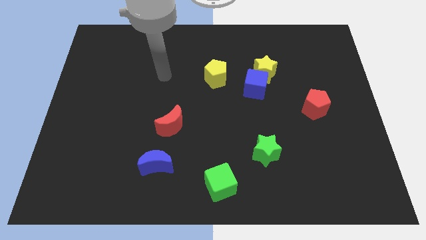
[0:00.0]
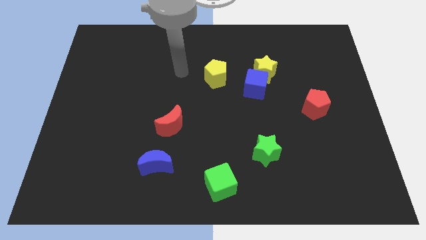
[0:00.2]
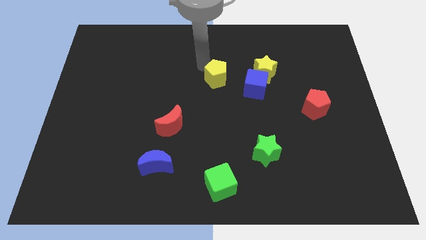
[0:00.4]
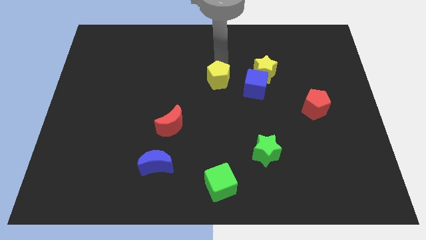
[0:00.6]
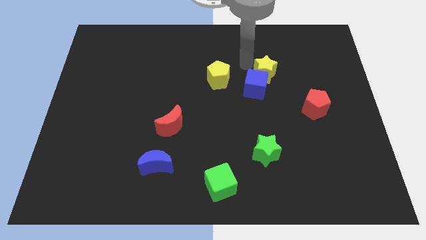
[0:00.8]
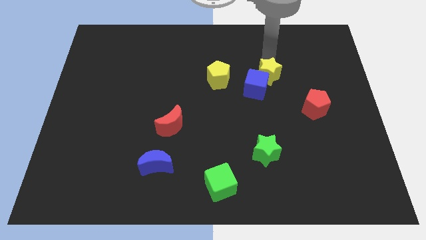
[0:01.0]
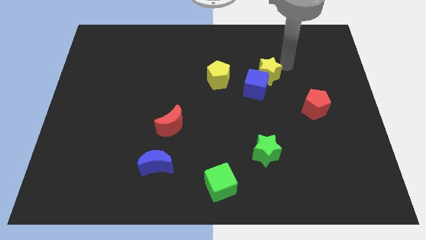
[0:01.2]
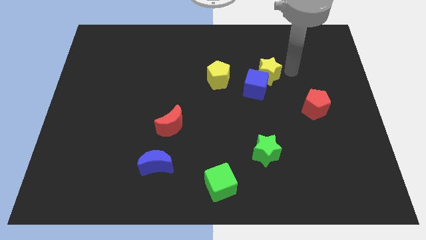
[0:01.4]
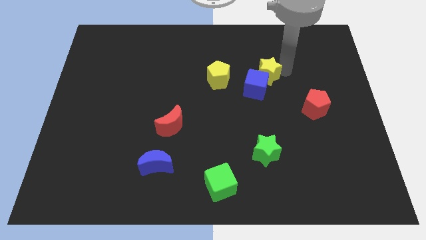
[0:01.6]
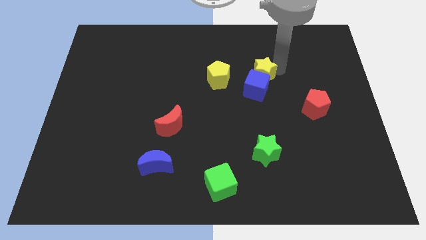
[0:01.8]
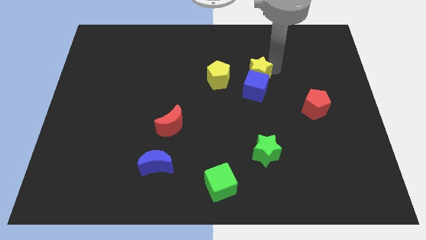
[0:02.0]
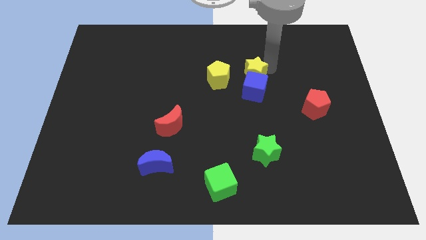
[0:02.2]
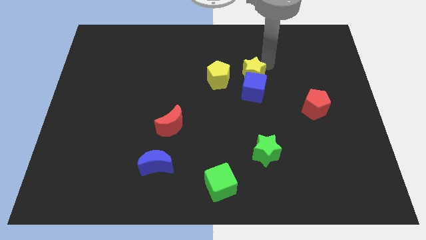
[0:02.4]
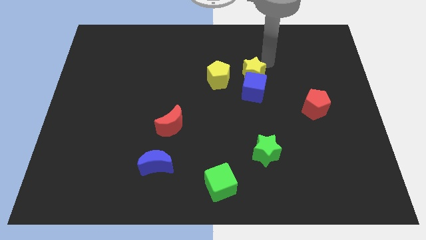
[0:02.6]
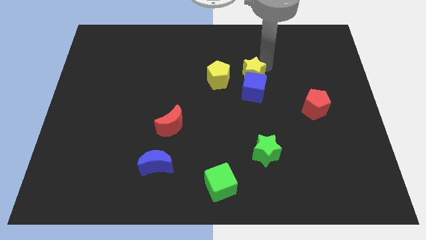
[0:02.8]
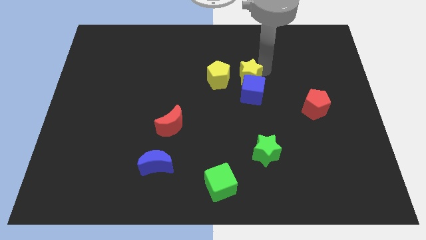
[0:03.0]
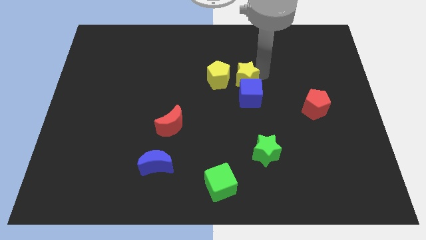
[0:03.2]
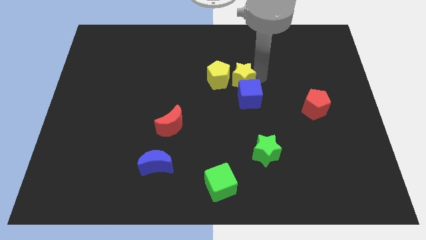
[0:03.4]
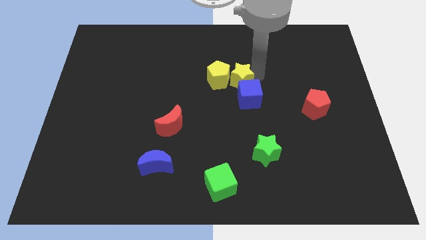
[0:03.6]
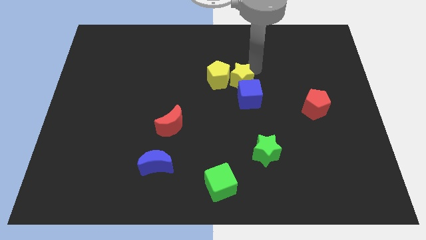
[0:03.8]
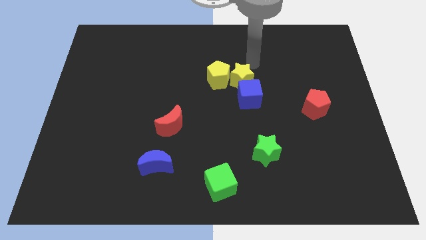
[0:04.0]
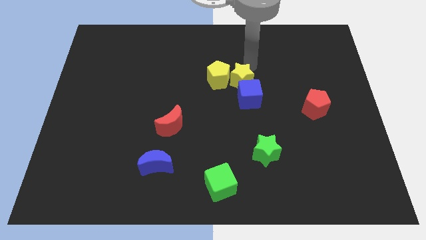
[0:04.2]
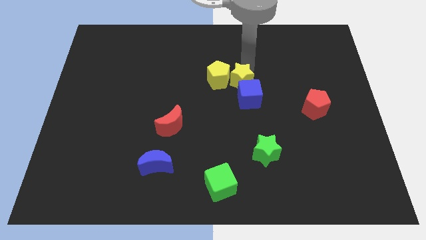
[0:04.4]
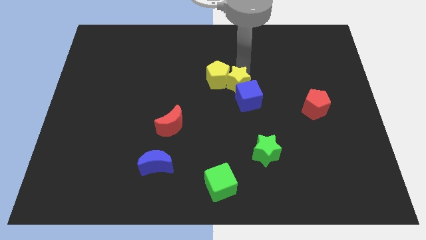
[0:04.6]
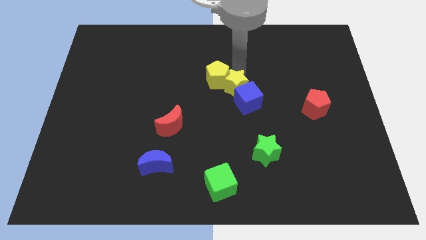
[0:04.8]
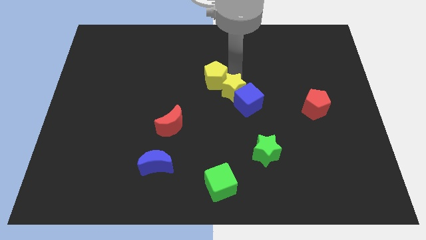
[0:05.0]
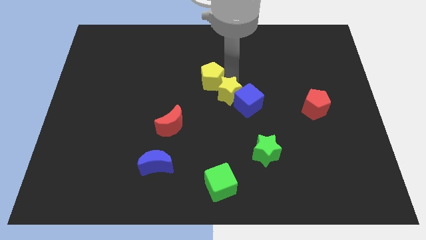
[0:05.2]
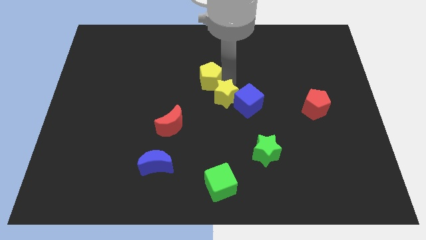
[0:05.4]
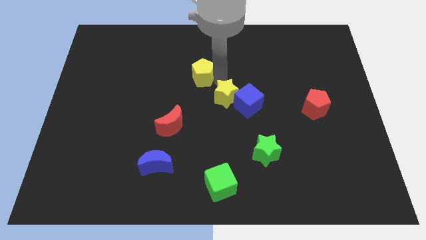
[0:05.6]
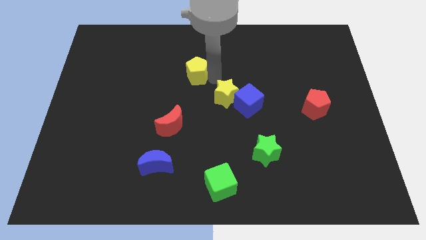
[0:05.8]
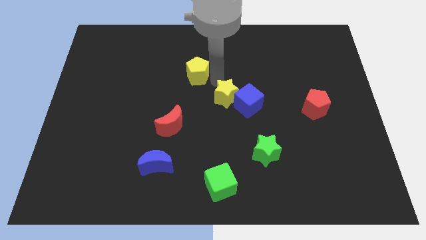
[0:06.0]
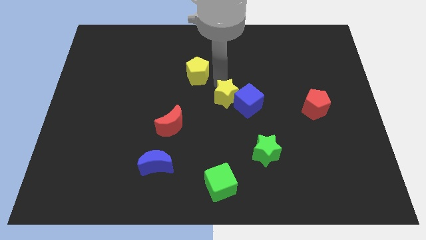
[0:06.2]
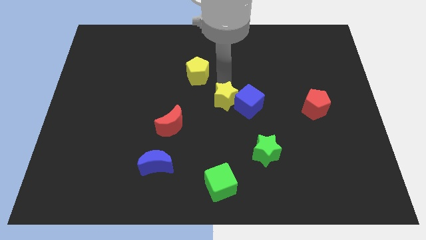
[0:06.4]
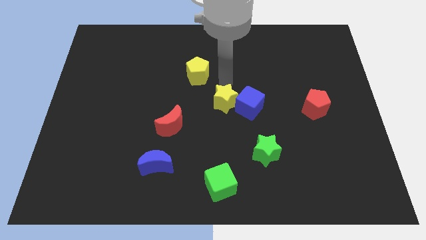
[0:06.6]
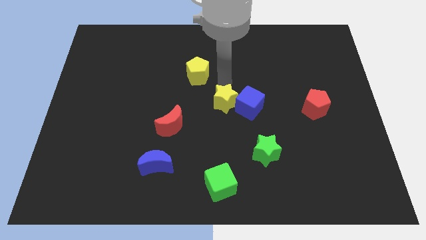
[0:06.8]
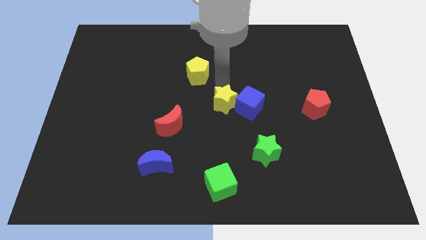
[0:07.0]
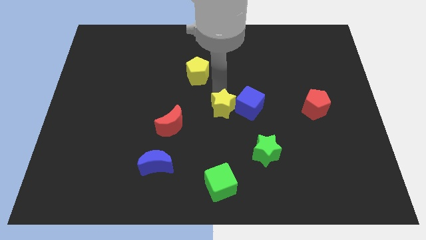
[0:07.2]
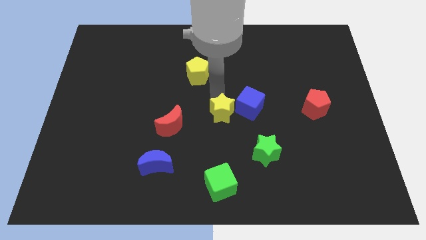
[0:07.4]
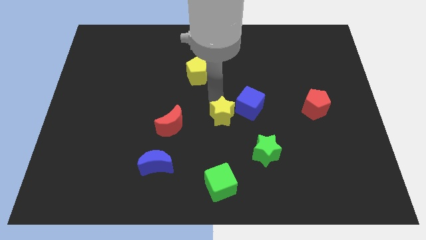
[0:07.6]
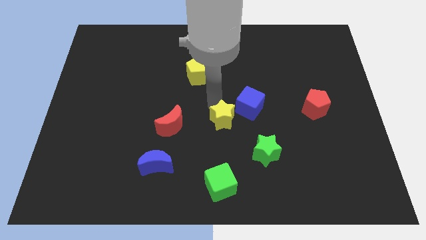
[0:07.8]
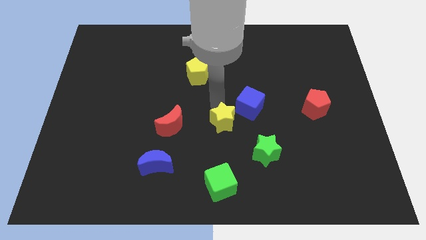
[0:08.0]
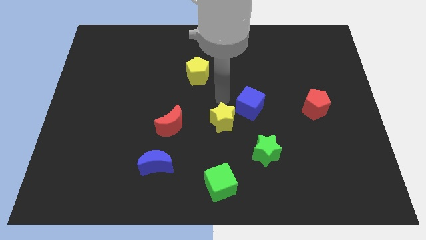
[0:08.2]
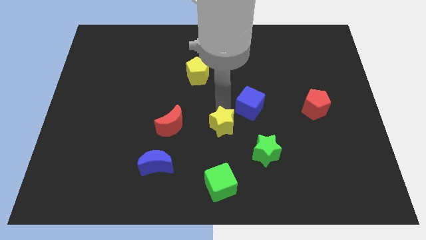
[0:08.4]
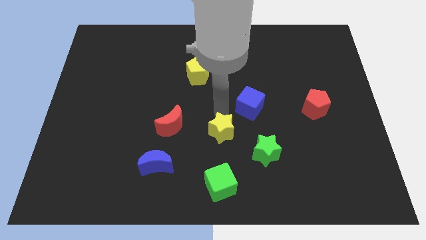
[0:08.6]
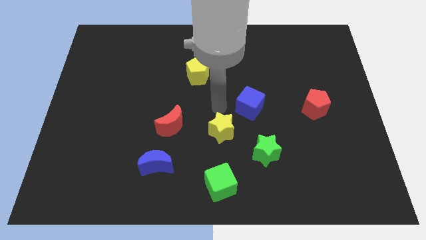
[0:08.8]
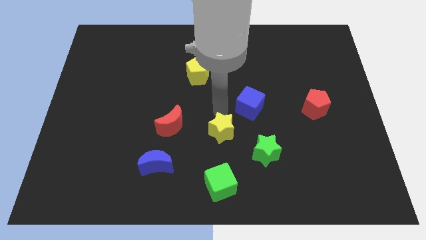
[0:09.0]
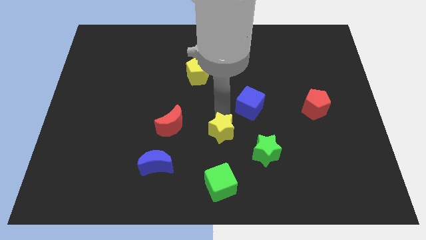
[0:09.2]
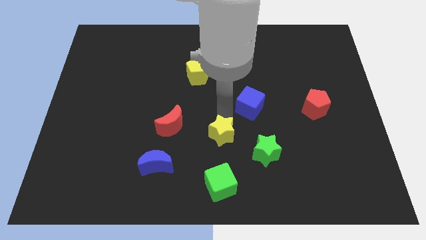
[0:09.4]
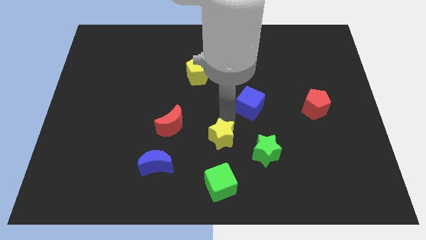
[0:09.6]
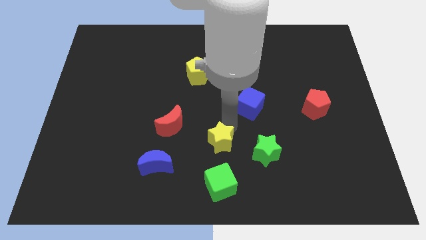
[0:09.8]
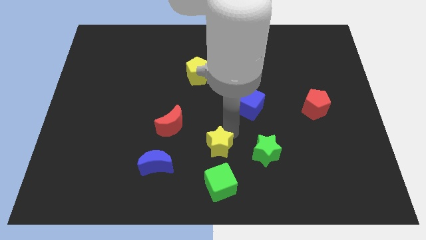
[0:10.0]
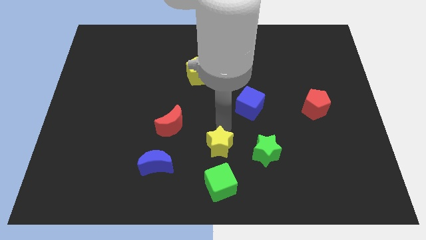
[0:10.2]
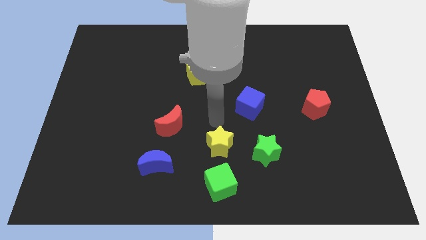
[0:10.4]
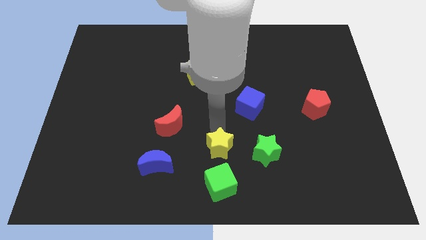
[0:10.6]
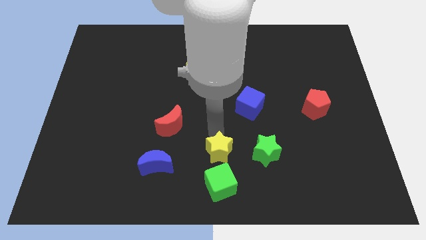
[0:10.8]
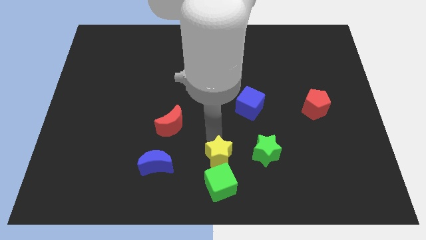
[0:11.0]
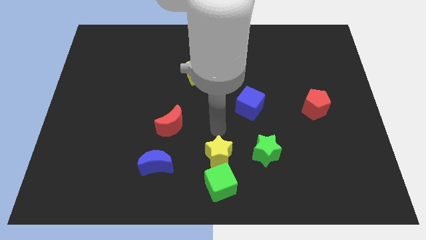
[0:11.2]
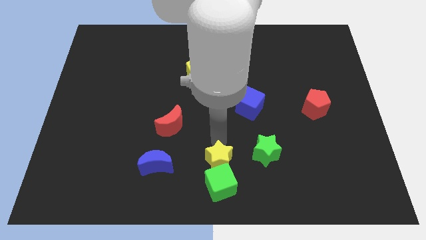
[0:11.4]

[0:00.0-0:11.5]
move the yellow star to the green cube

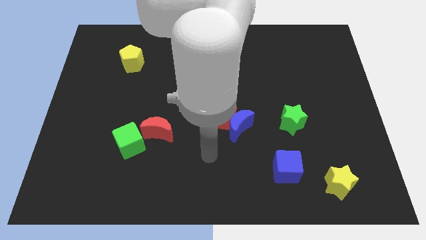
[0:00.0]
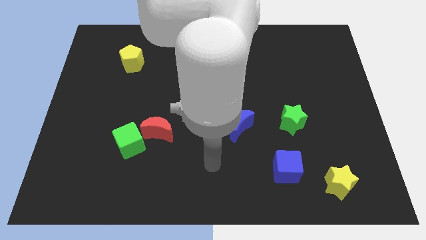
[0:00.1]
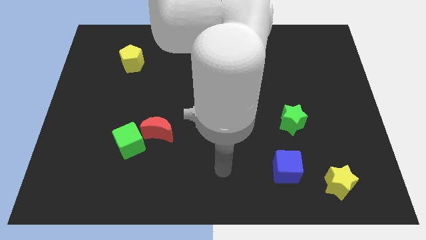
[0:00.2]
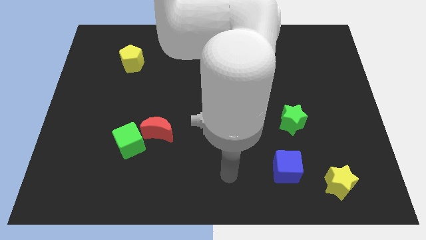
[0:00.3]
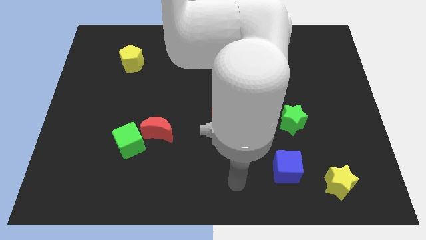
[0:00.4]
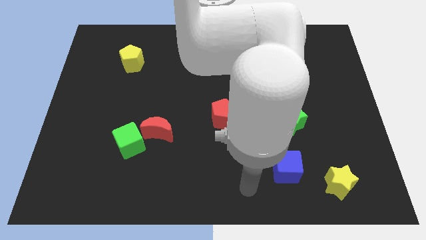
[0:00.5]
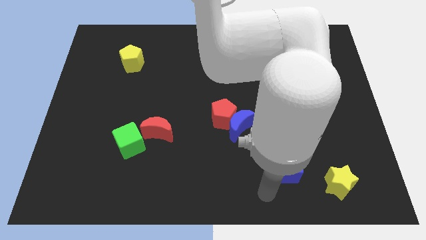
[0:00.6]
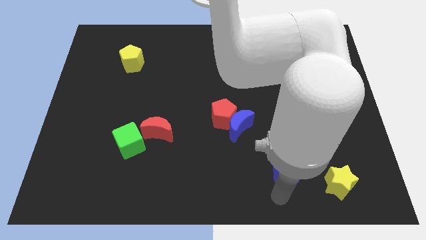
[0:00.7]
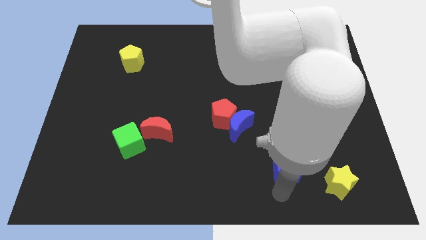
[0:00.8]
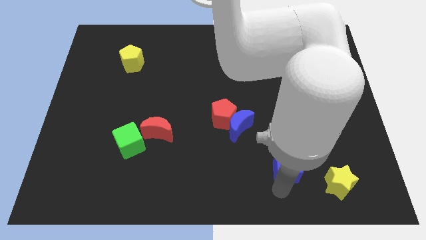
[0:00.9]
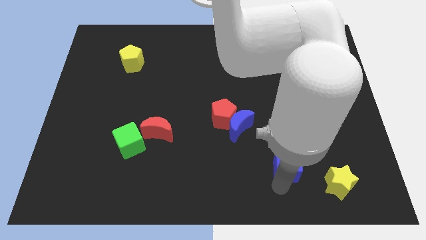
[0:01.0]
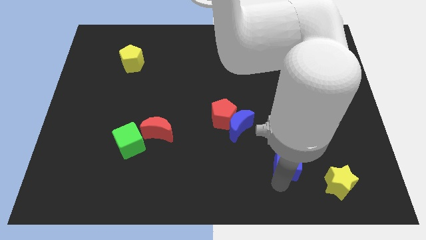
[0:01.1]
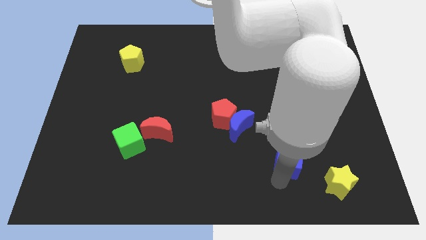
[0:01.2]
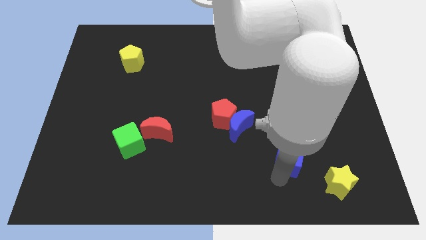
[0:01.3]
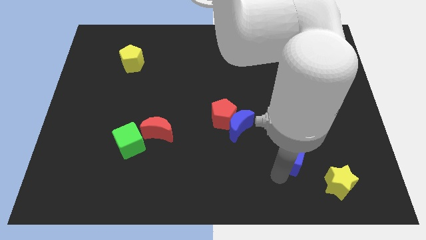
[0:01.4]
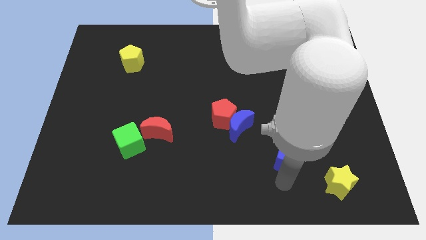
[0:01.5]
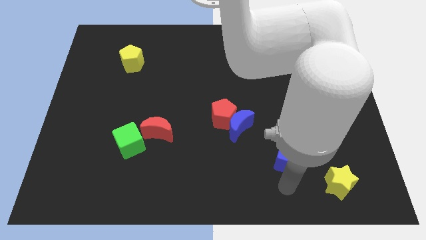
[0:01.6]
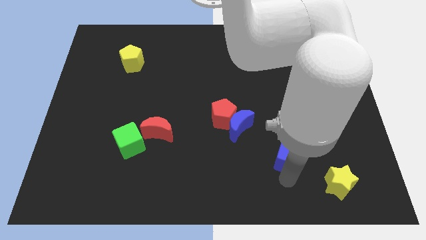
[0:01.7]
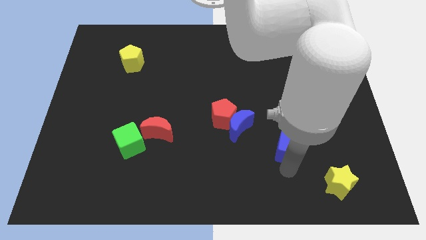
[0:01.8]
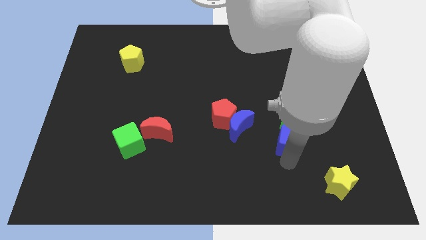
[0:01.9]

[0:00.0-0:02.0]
put the blue cube close to the green star
